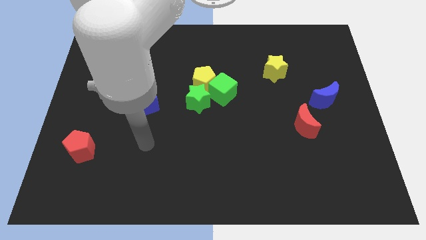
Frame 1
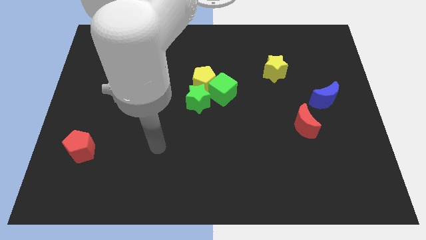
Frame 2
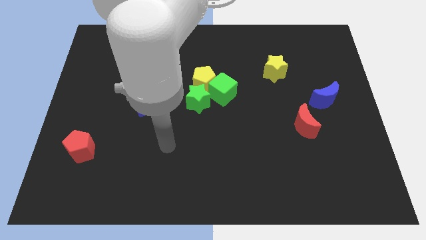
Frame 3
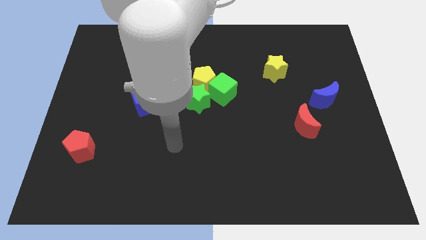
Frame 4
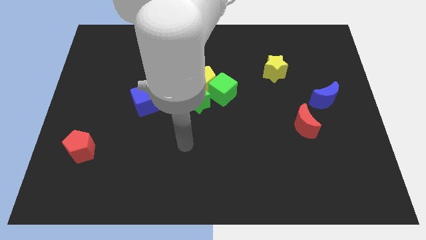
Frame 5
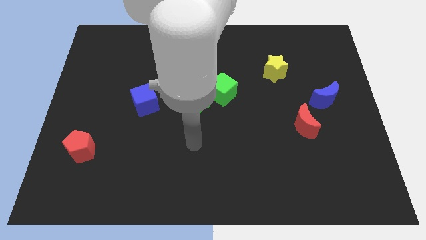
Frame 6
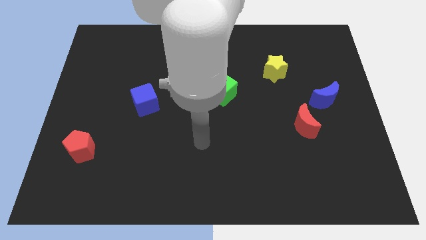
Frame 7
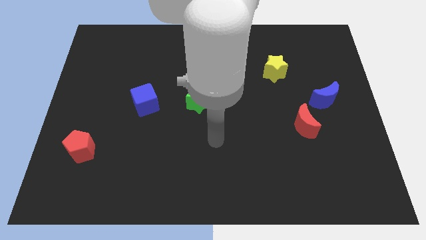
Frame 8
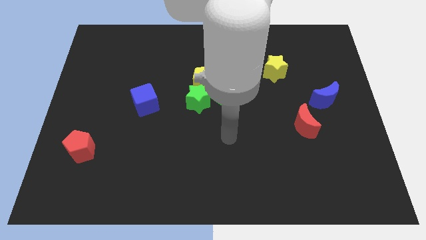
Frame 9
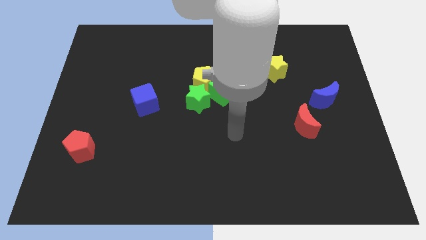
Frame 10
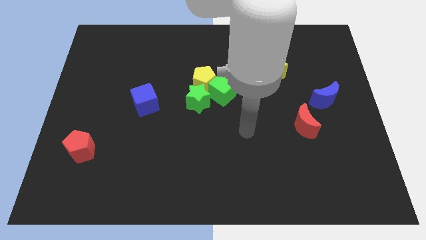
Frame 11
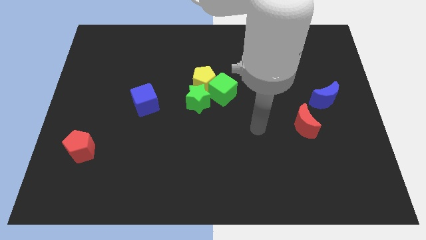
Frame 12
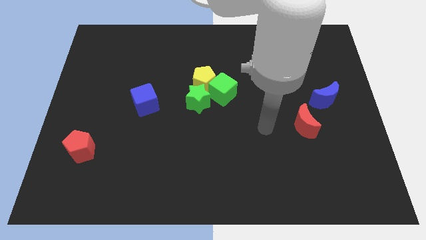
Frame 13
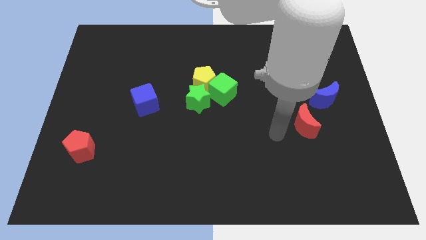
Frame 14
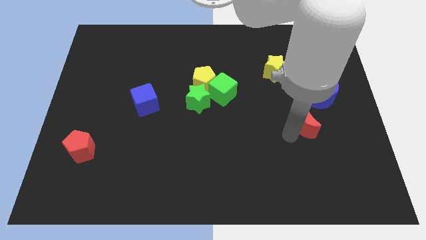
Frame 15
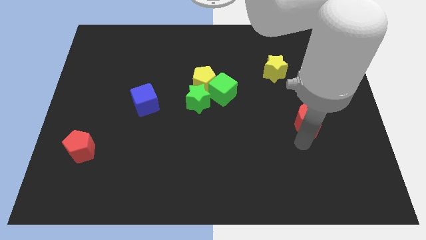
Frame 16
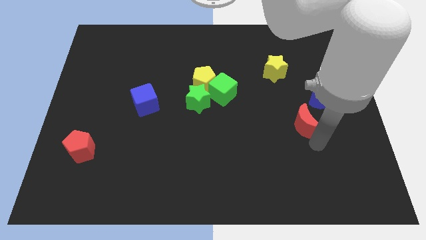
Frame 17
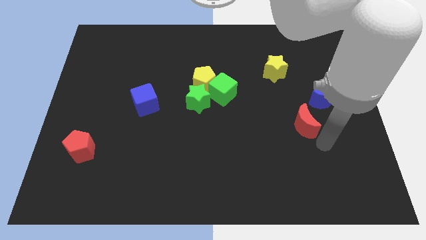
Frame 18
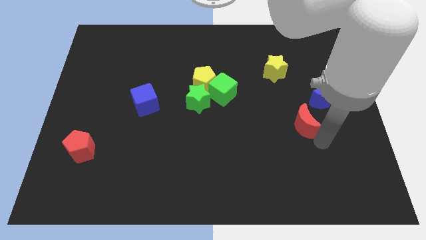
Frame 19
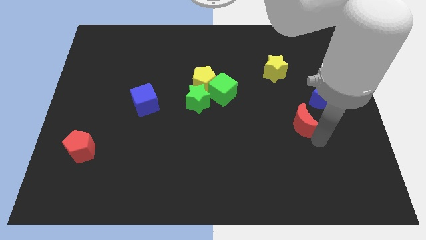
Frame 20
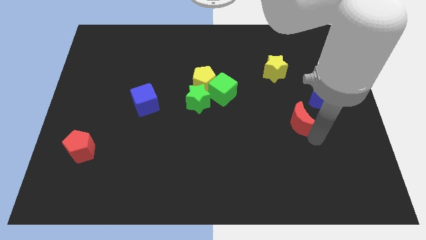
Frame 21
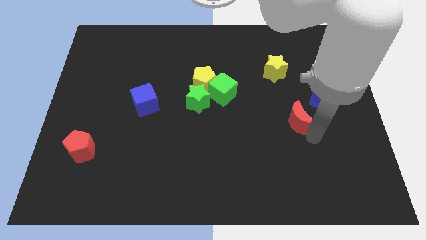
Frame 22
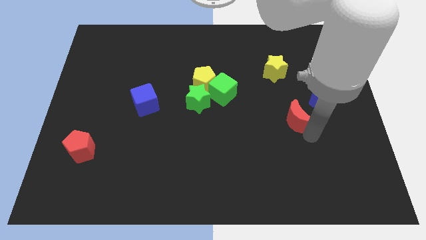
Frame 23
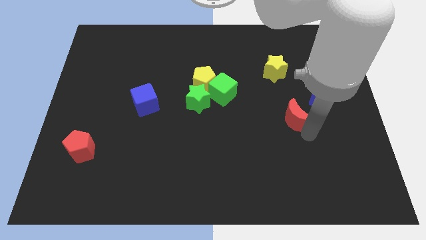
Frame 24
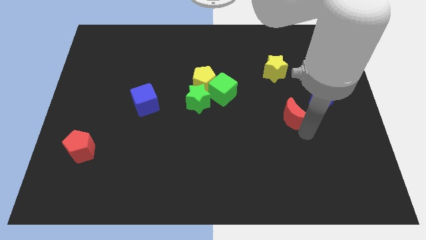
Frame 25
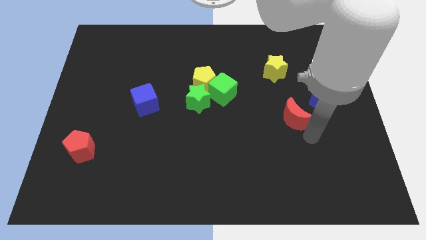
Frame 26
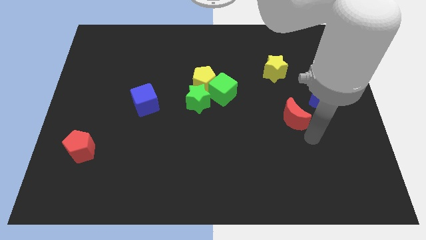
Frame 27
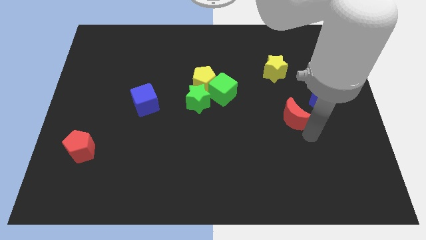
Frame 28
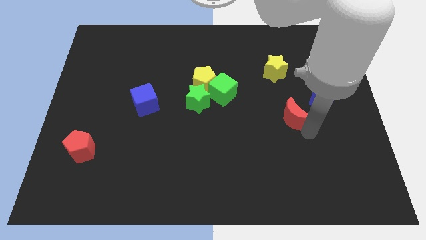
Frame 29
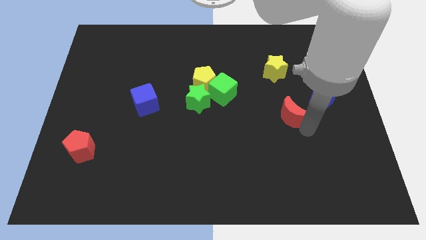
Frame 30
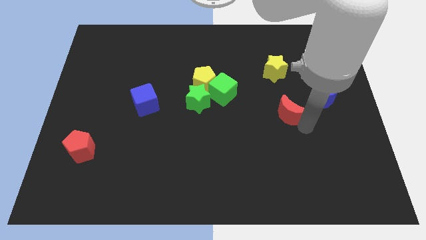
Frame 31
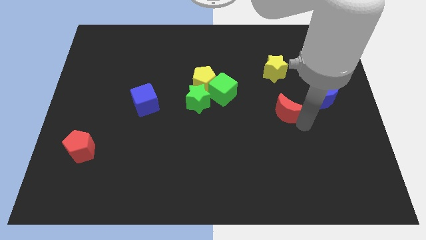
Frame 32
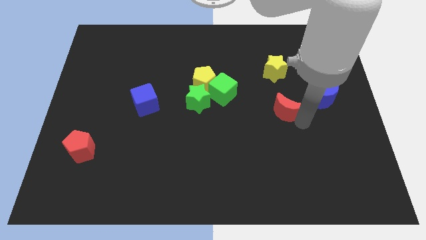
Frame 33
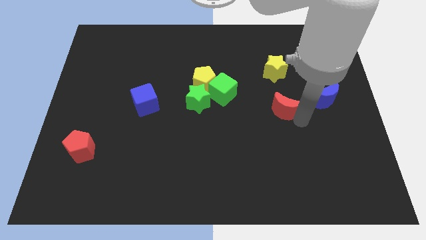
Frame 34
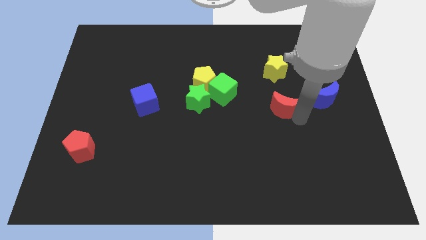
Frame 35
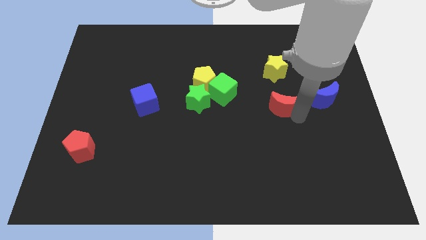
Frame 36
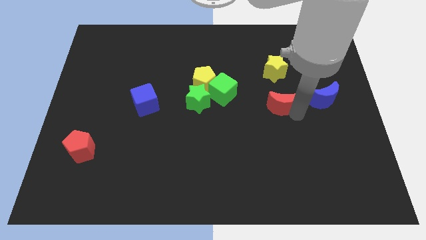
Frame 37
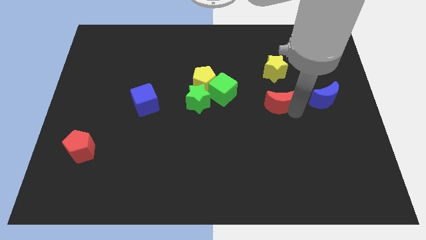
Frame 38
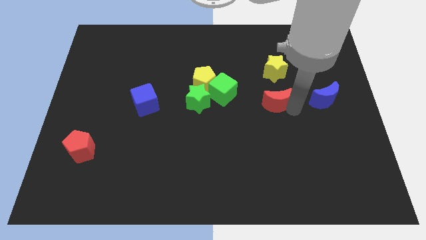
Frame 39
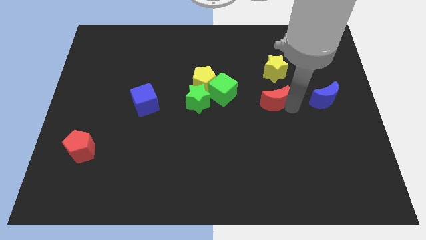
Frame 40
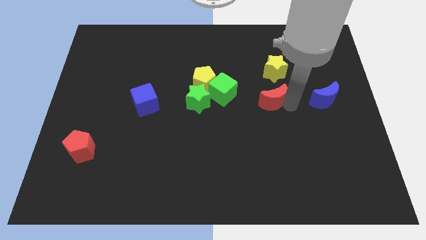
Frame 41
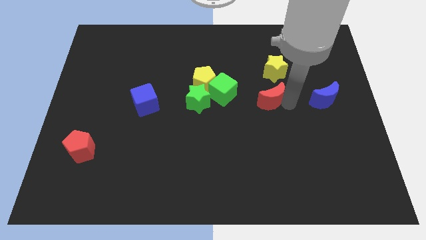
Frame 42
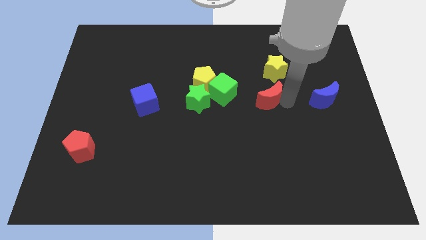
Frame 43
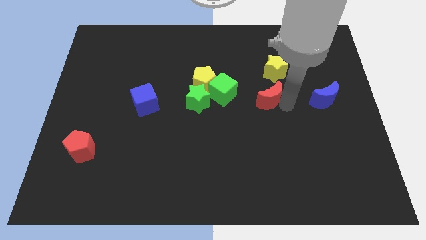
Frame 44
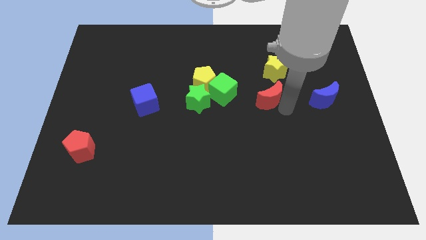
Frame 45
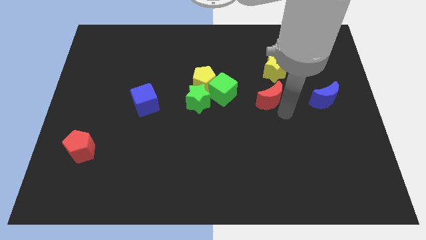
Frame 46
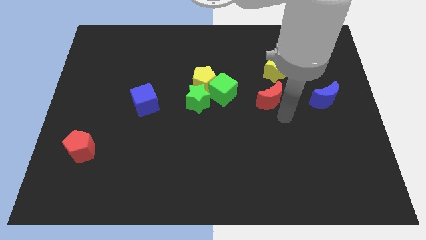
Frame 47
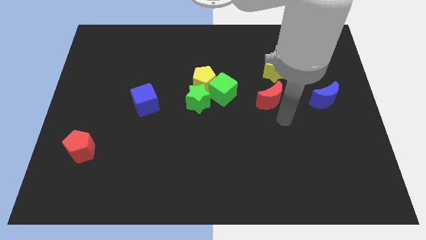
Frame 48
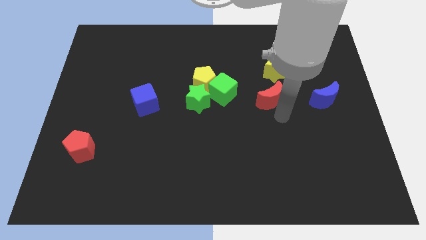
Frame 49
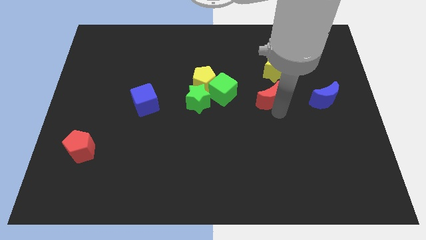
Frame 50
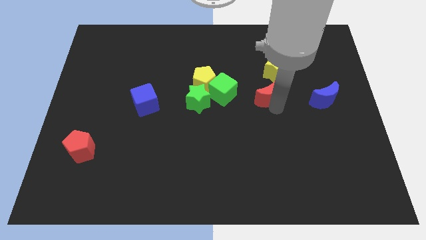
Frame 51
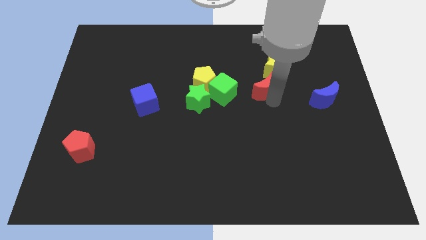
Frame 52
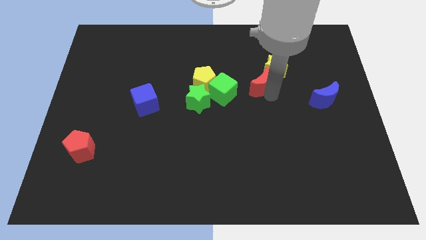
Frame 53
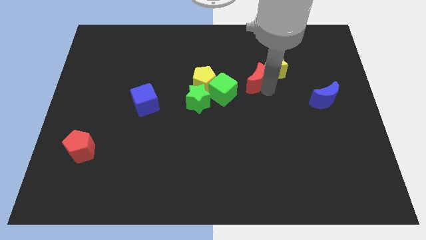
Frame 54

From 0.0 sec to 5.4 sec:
push the red moon diagonally up and to the right of the green cube

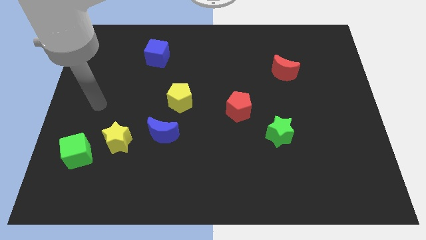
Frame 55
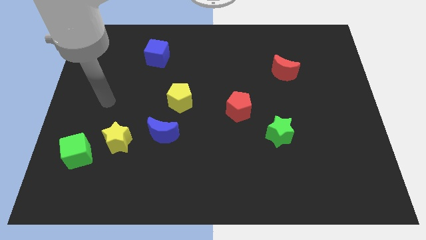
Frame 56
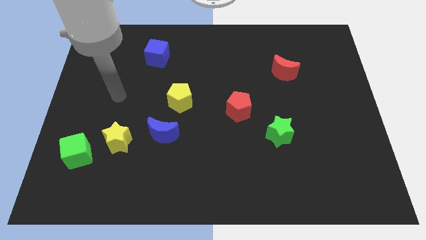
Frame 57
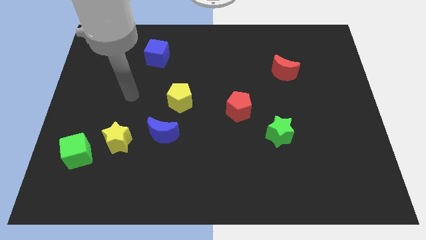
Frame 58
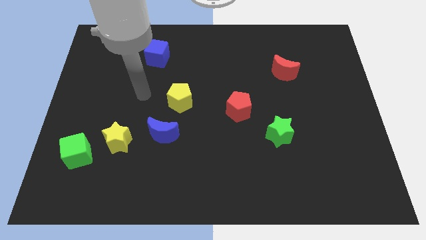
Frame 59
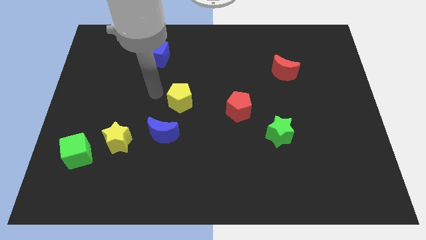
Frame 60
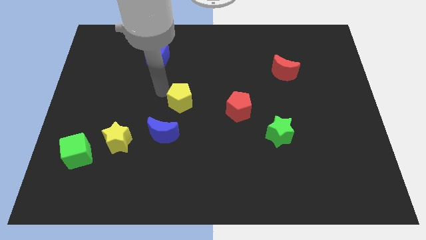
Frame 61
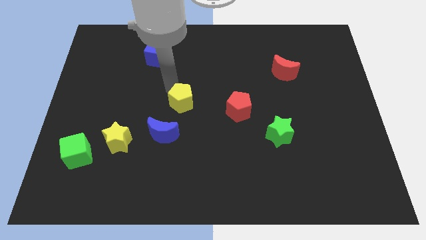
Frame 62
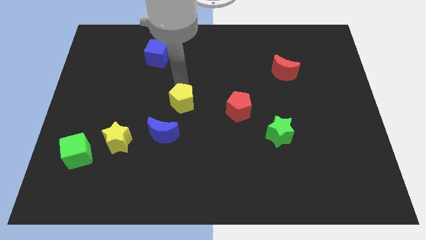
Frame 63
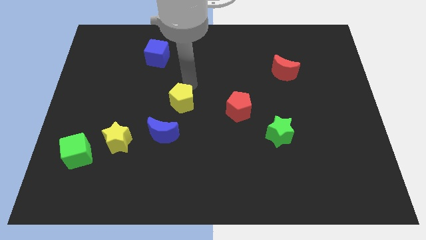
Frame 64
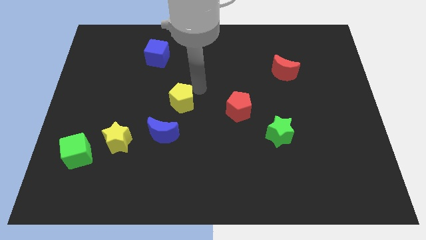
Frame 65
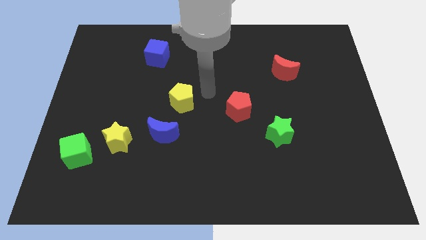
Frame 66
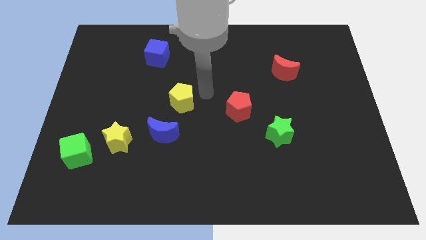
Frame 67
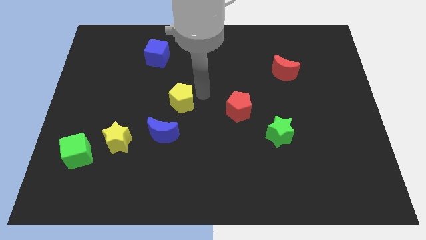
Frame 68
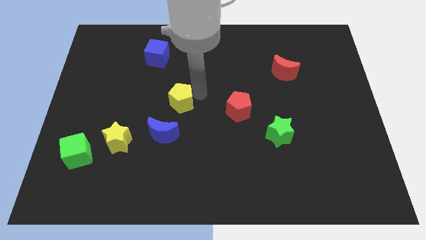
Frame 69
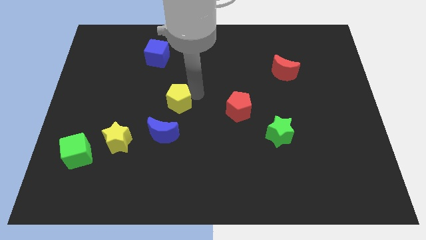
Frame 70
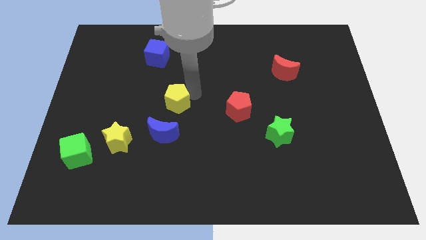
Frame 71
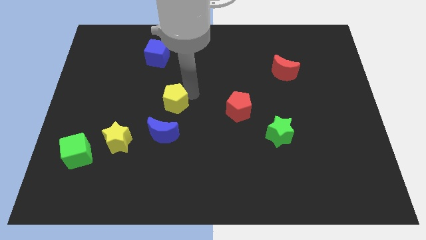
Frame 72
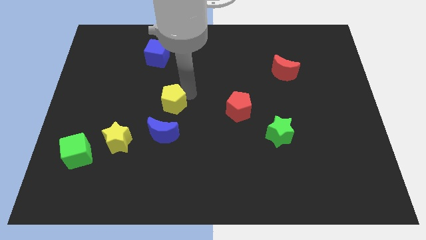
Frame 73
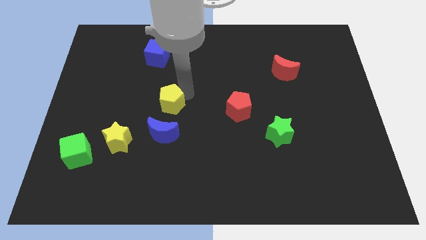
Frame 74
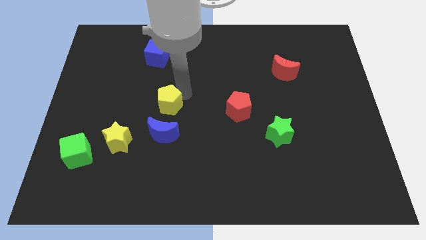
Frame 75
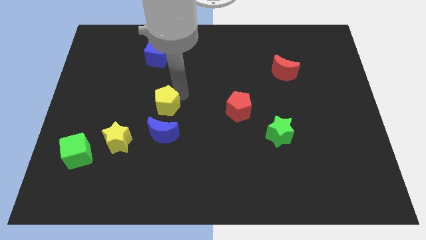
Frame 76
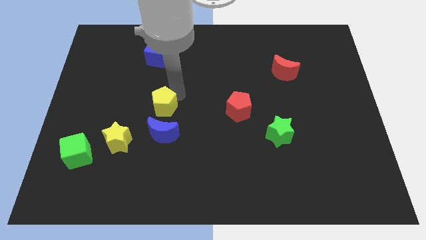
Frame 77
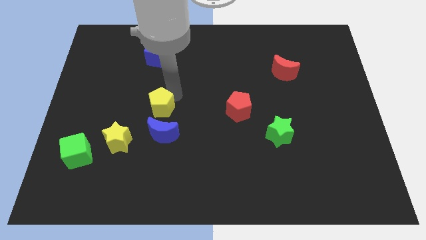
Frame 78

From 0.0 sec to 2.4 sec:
push the yellow pentagon to the top left of the blue moon
